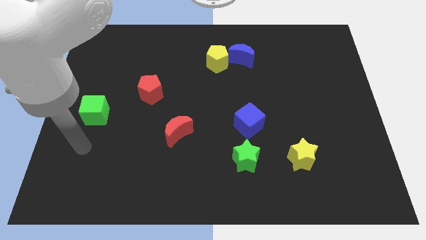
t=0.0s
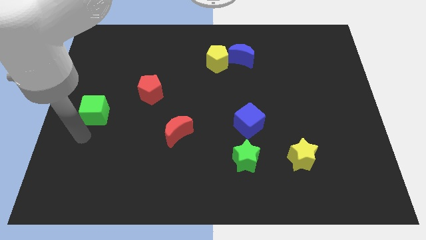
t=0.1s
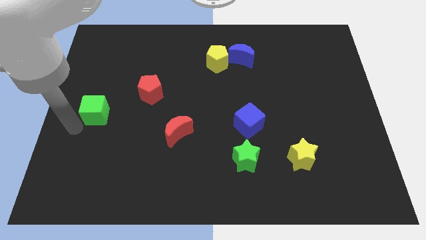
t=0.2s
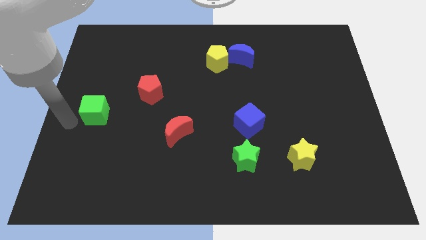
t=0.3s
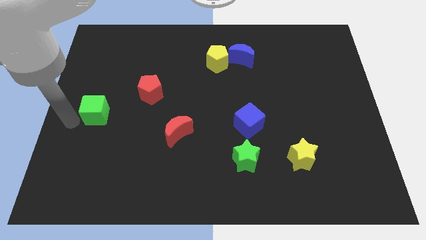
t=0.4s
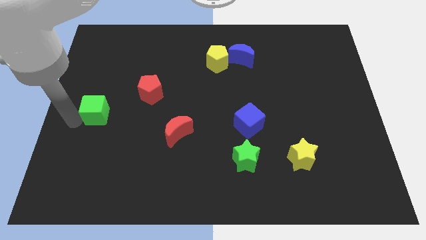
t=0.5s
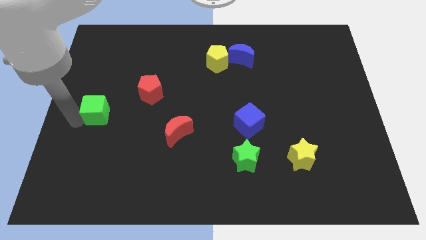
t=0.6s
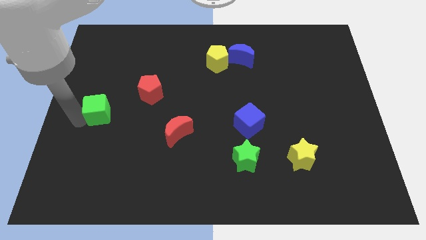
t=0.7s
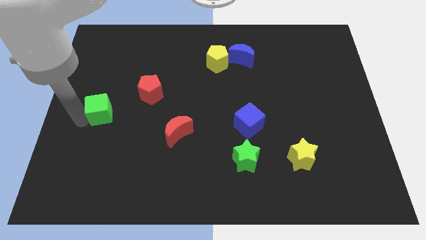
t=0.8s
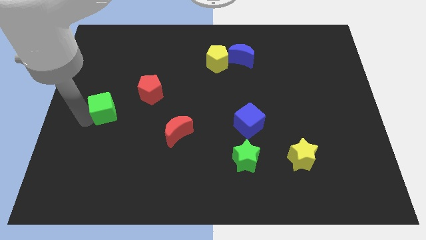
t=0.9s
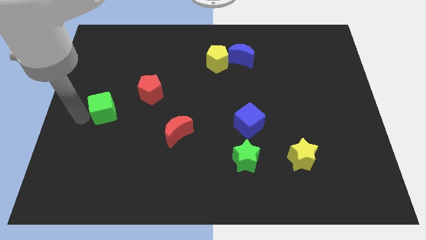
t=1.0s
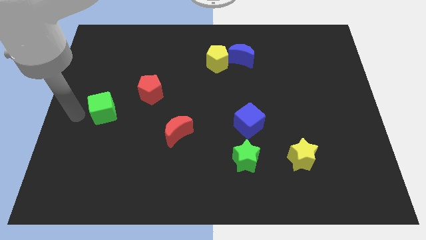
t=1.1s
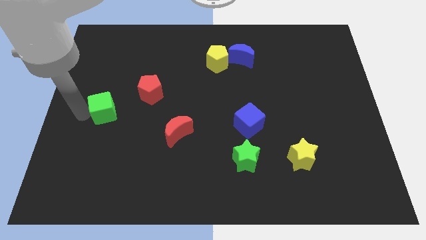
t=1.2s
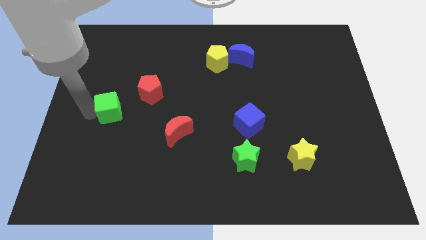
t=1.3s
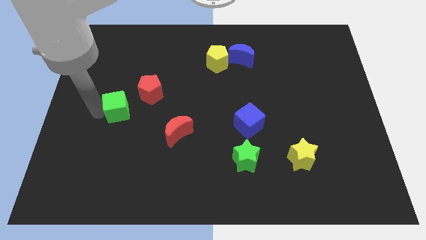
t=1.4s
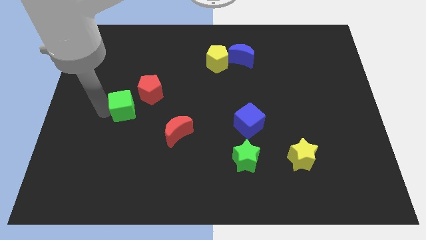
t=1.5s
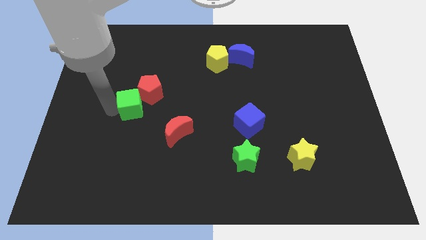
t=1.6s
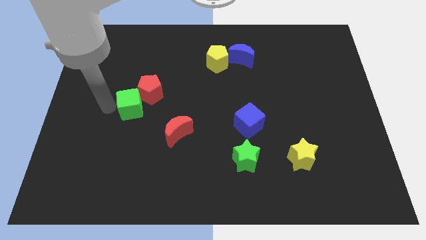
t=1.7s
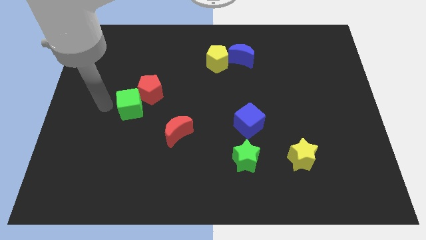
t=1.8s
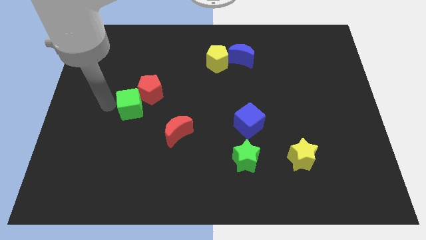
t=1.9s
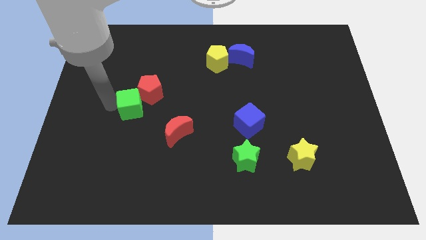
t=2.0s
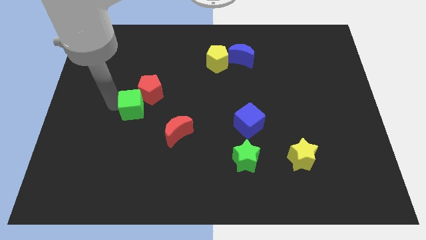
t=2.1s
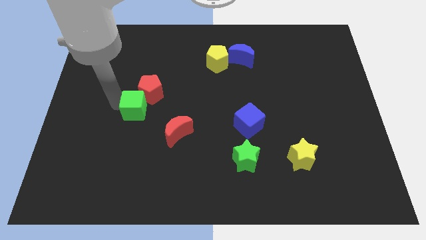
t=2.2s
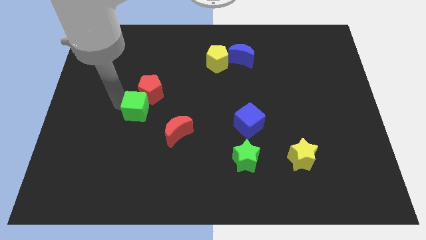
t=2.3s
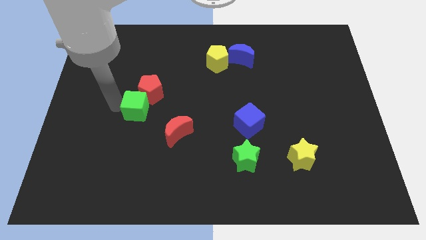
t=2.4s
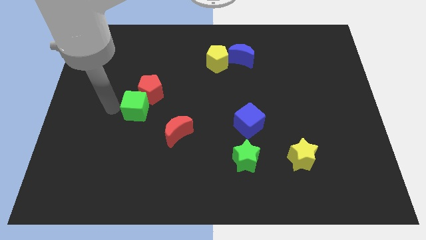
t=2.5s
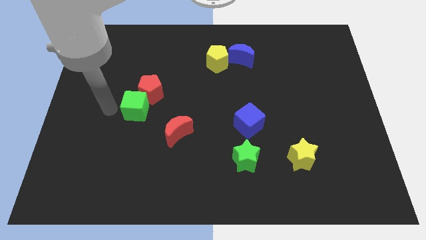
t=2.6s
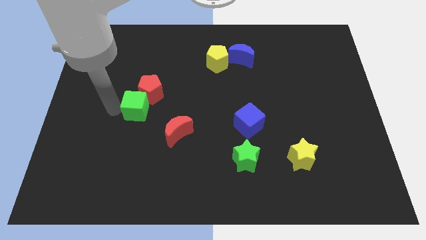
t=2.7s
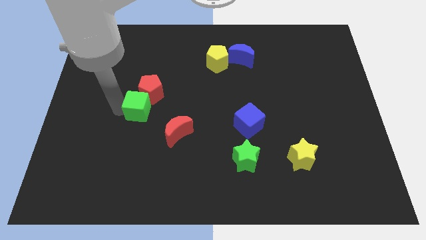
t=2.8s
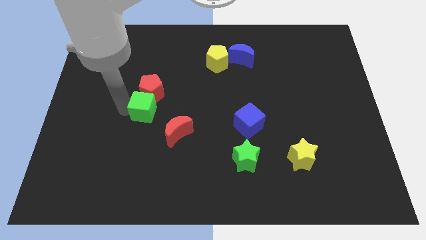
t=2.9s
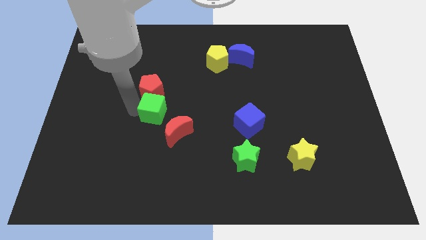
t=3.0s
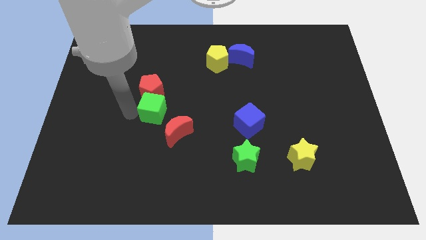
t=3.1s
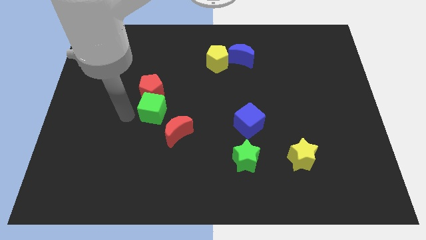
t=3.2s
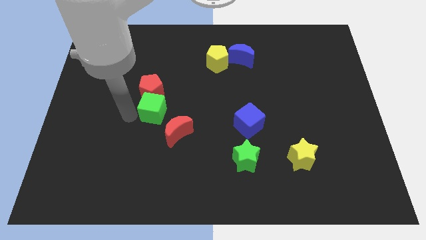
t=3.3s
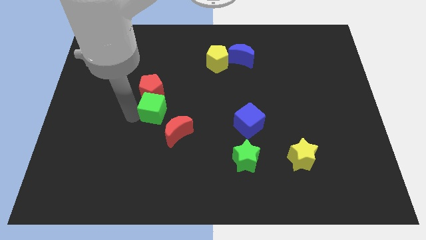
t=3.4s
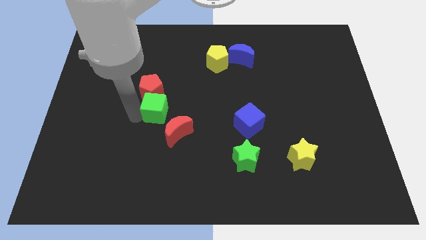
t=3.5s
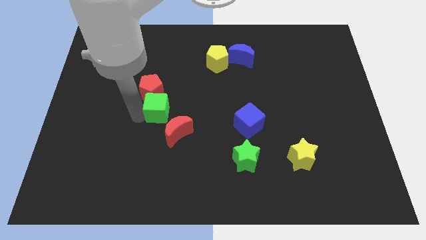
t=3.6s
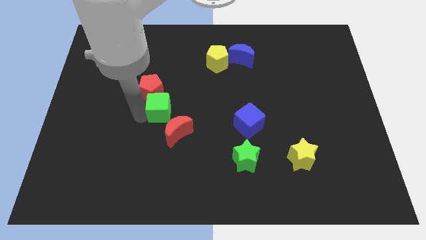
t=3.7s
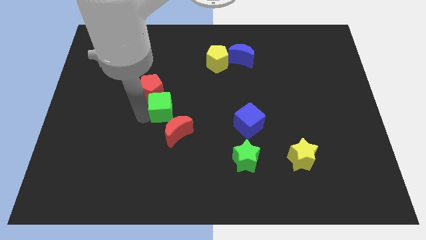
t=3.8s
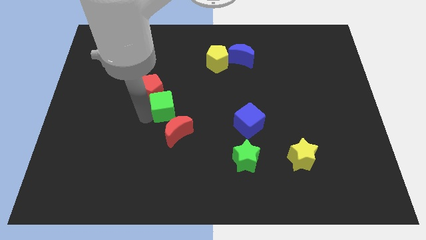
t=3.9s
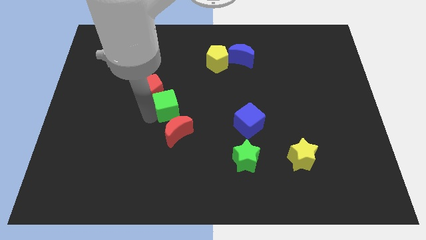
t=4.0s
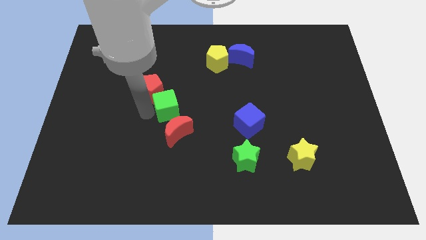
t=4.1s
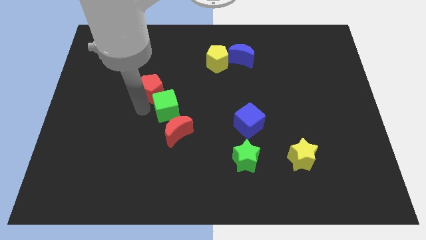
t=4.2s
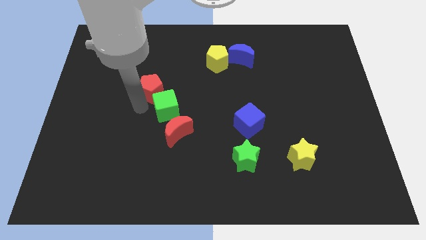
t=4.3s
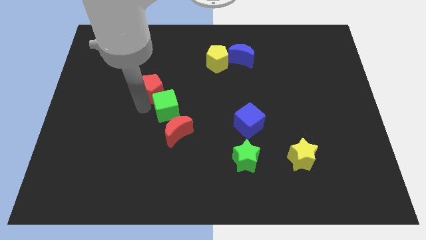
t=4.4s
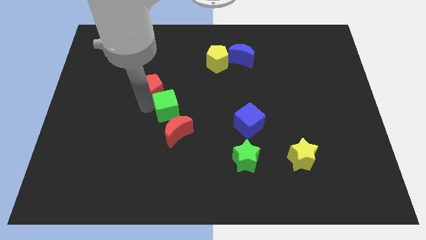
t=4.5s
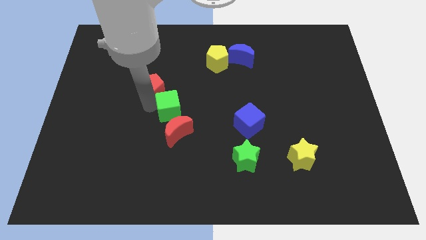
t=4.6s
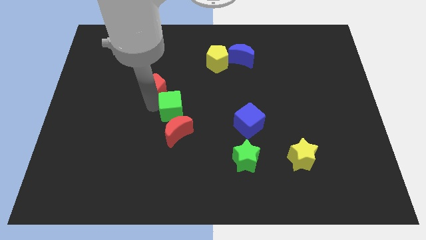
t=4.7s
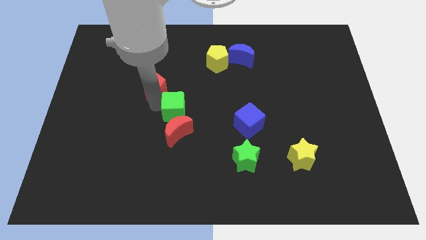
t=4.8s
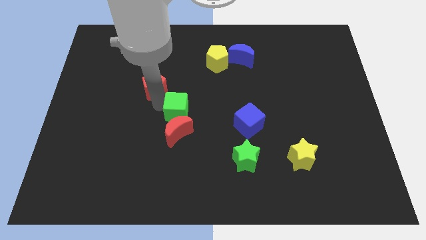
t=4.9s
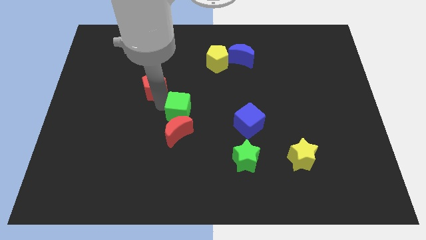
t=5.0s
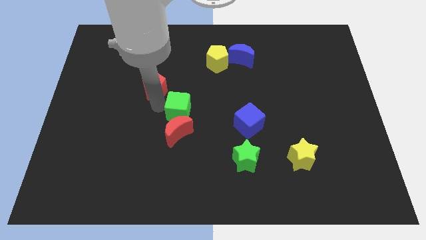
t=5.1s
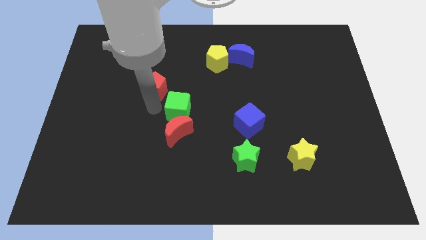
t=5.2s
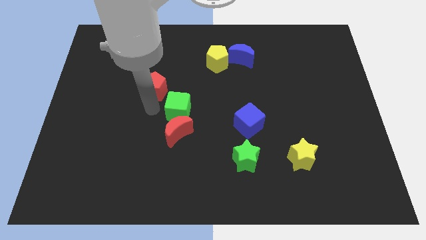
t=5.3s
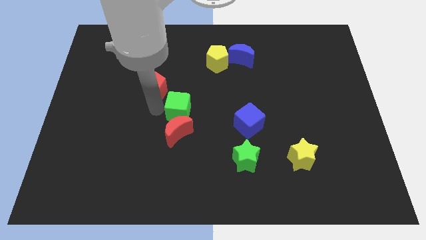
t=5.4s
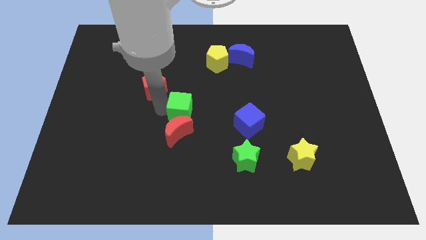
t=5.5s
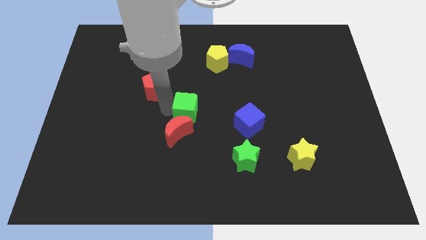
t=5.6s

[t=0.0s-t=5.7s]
move the green cube to the left side of the blue cube

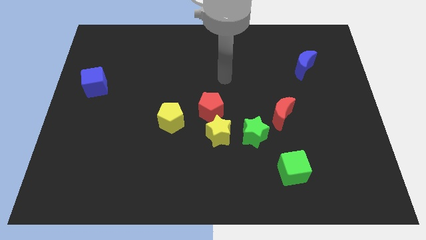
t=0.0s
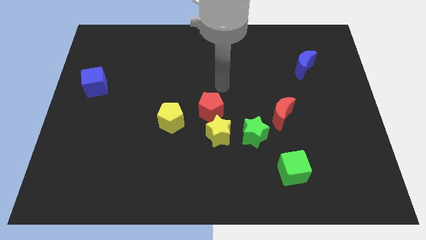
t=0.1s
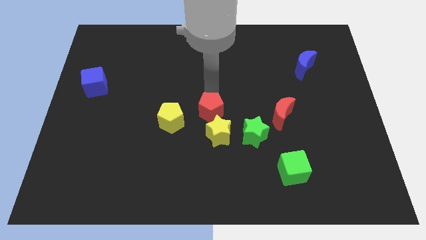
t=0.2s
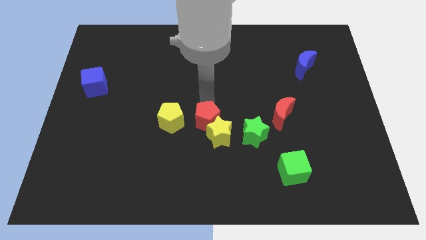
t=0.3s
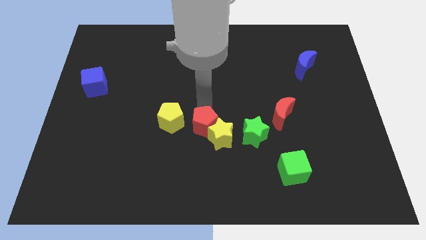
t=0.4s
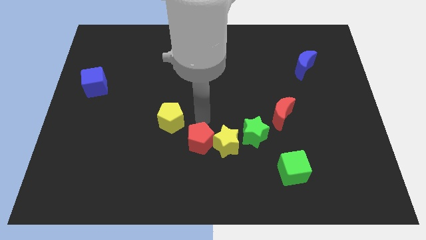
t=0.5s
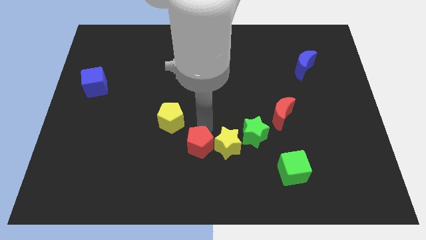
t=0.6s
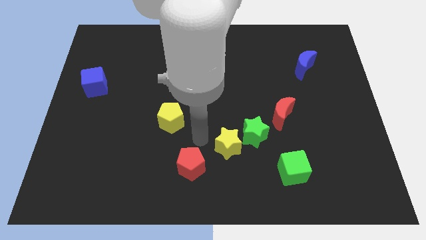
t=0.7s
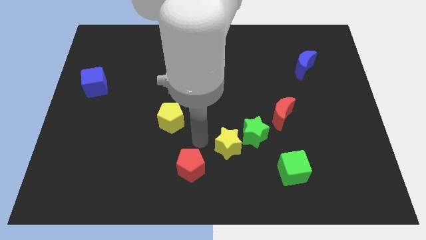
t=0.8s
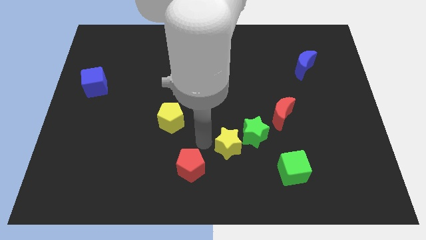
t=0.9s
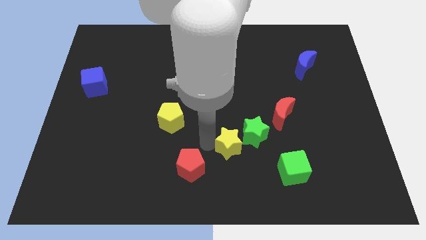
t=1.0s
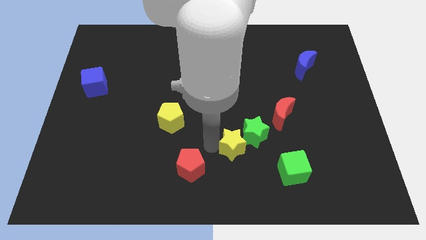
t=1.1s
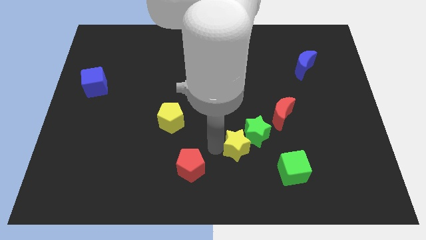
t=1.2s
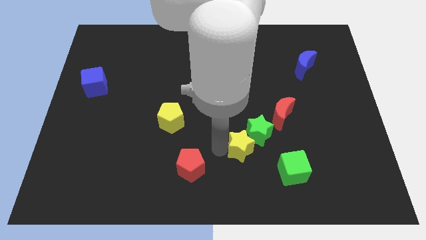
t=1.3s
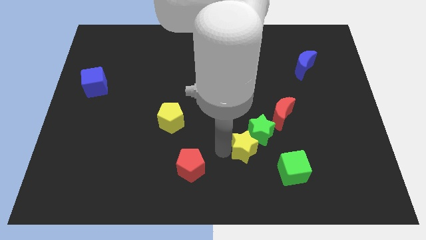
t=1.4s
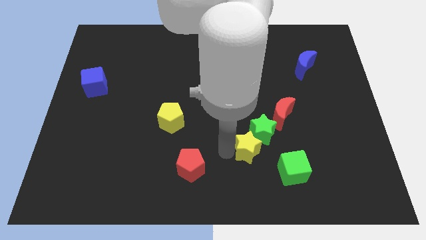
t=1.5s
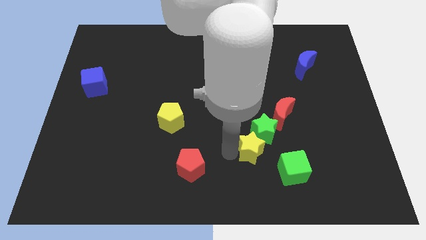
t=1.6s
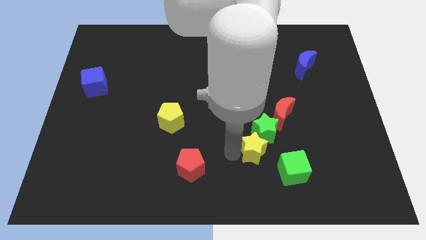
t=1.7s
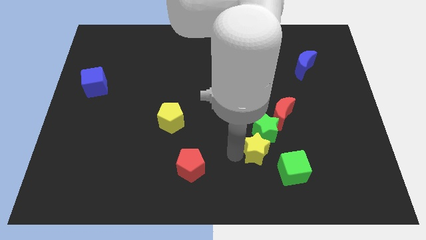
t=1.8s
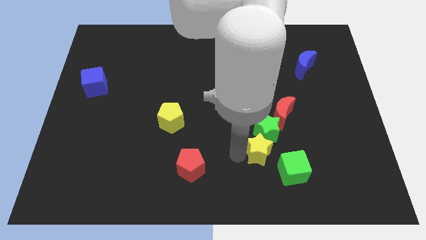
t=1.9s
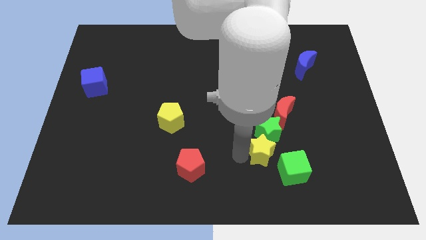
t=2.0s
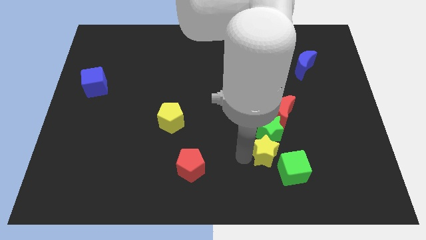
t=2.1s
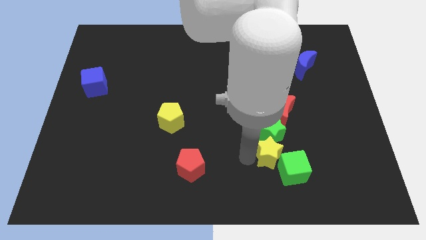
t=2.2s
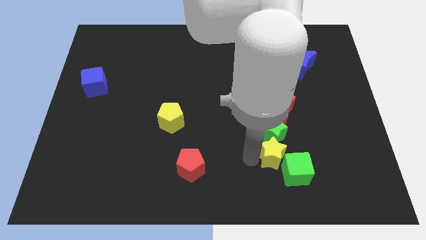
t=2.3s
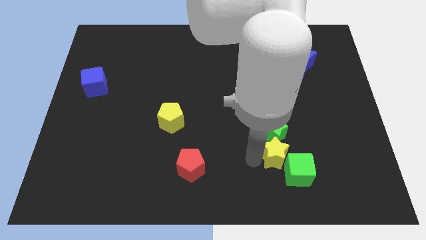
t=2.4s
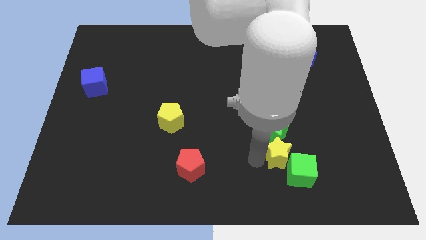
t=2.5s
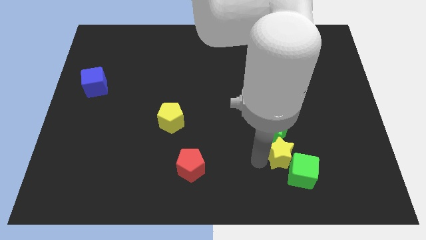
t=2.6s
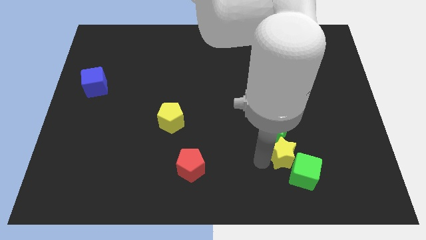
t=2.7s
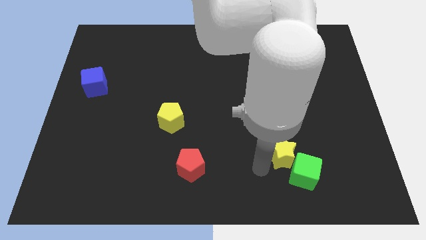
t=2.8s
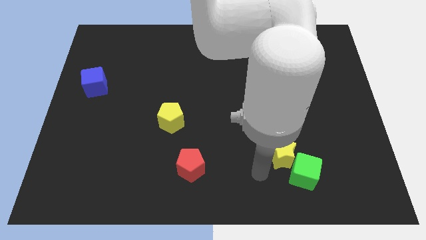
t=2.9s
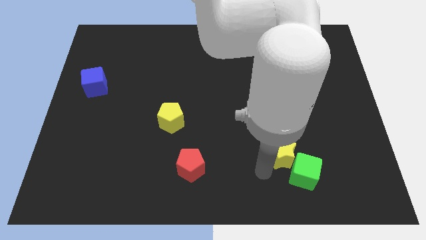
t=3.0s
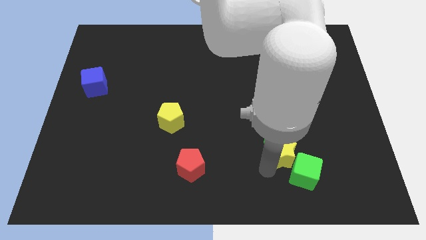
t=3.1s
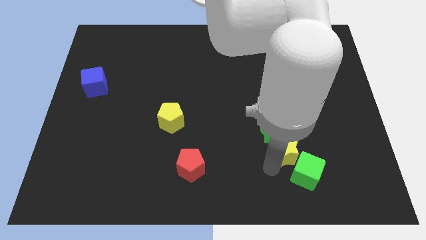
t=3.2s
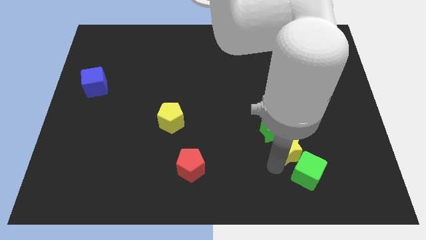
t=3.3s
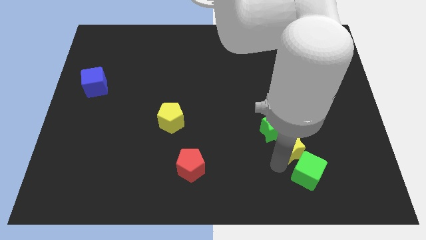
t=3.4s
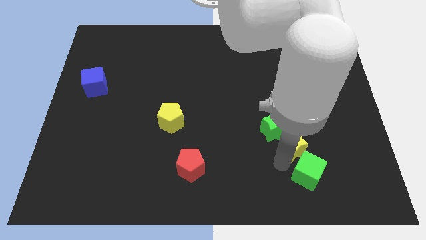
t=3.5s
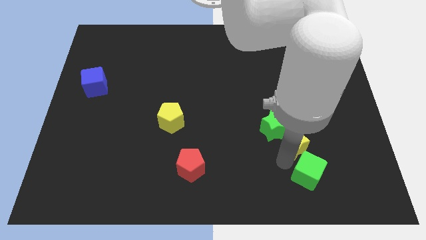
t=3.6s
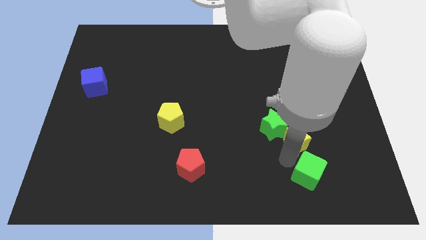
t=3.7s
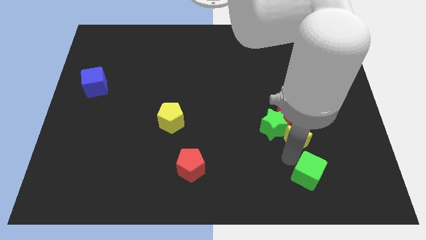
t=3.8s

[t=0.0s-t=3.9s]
push the yellow star to the bottom right of the red moon
